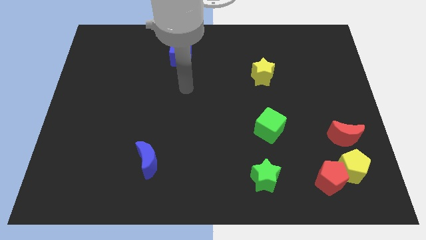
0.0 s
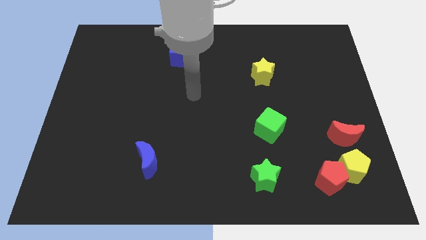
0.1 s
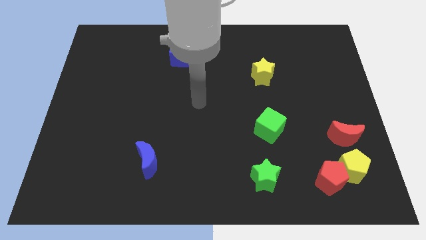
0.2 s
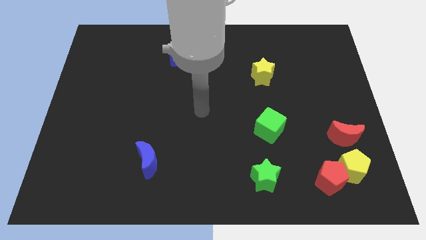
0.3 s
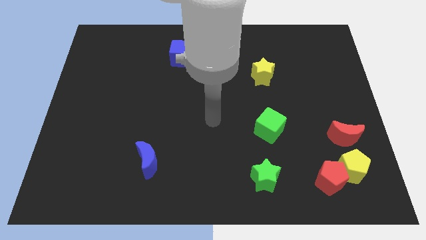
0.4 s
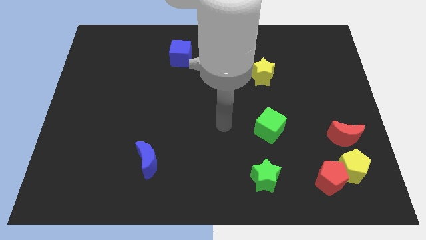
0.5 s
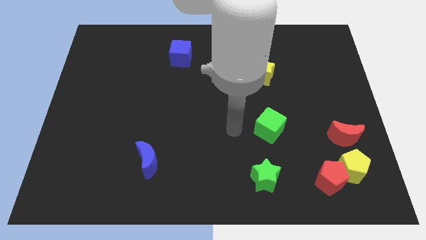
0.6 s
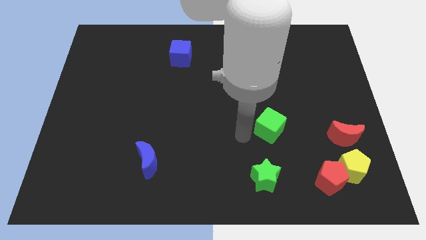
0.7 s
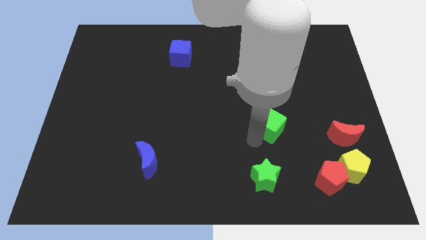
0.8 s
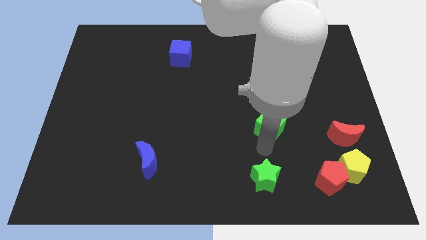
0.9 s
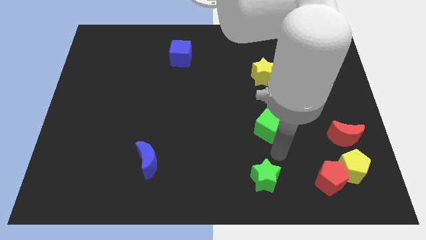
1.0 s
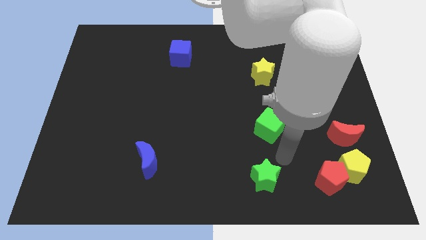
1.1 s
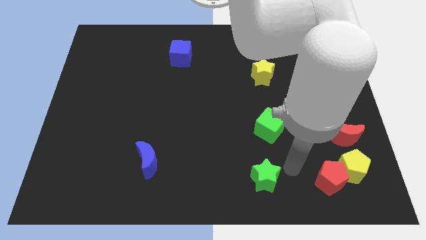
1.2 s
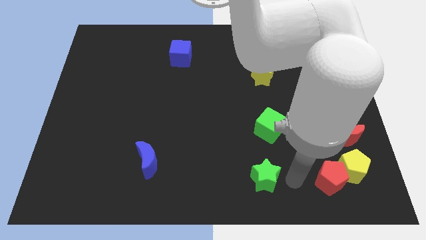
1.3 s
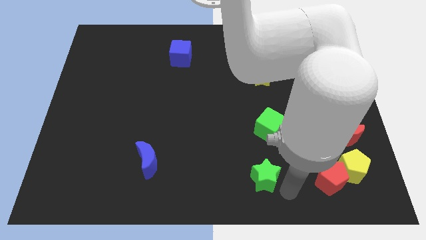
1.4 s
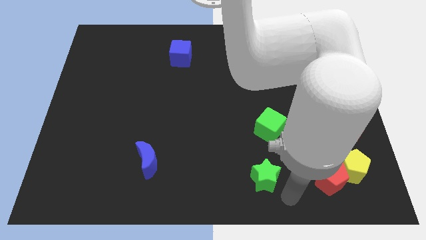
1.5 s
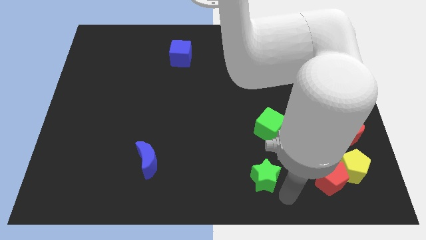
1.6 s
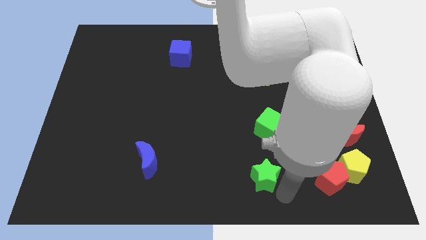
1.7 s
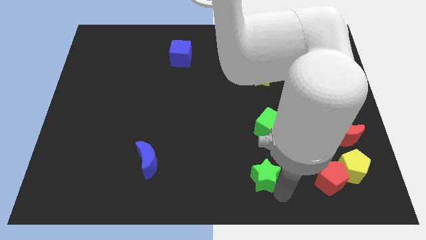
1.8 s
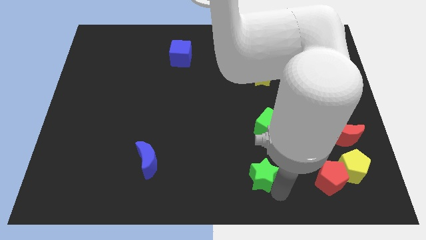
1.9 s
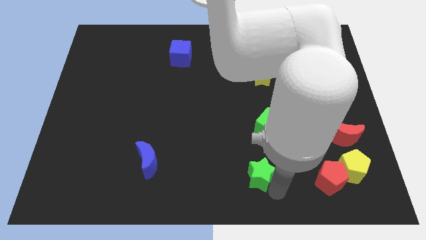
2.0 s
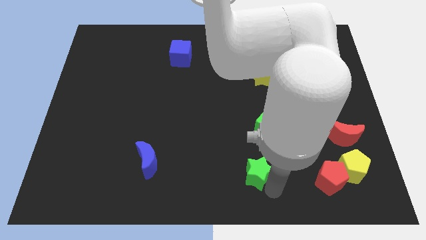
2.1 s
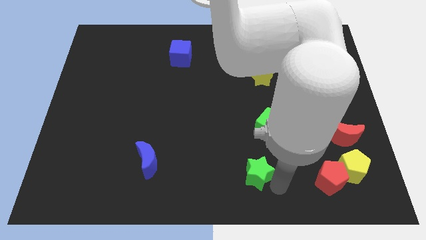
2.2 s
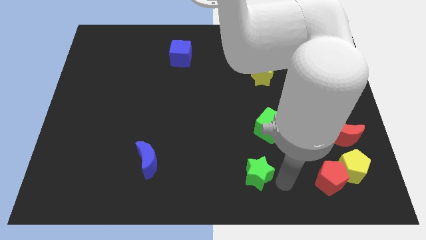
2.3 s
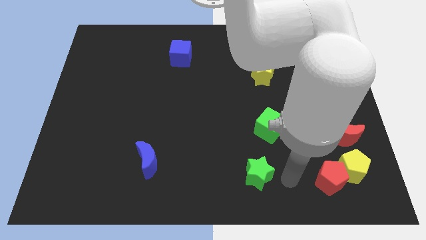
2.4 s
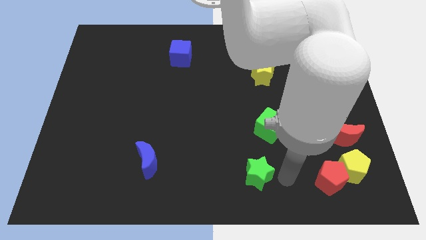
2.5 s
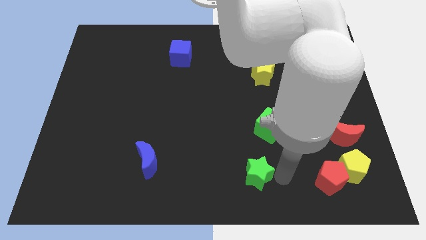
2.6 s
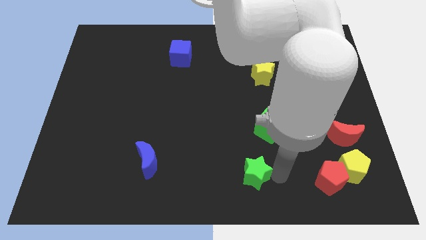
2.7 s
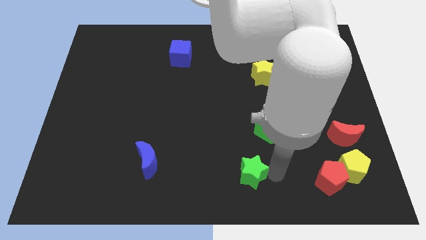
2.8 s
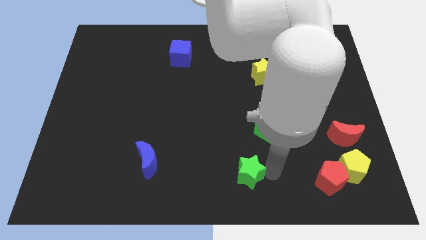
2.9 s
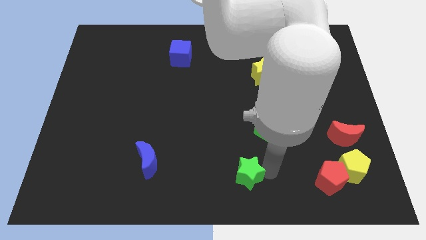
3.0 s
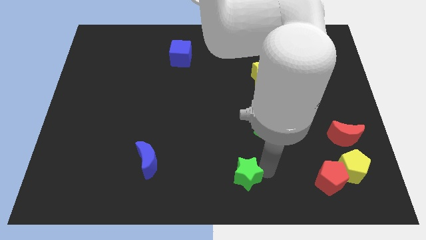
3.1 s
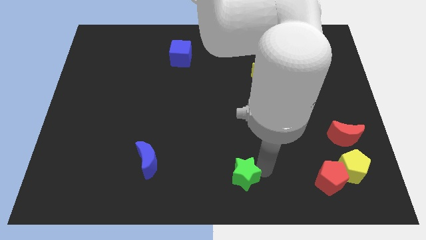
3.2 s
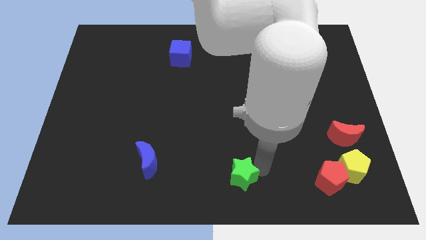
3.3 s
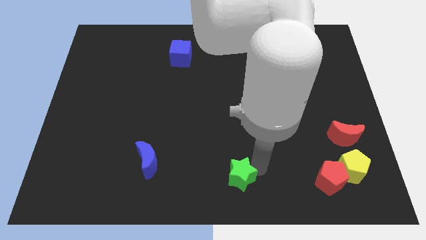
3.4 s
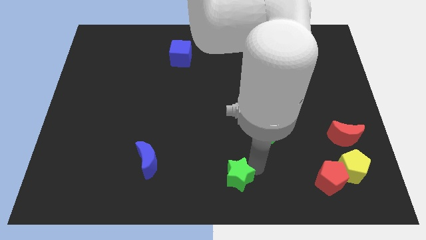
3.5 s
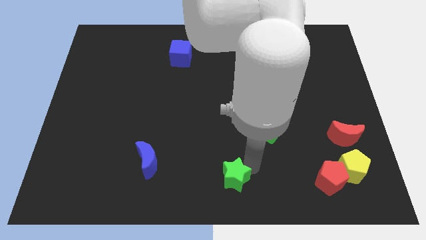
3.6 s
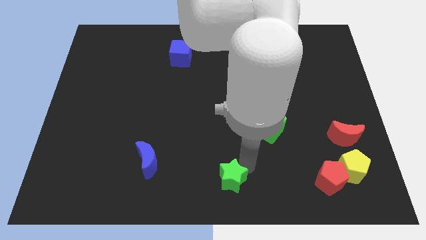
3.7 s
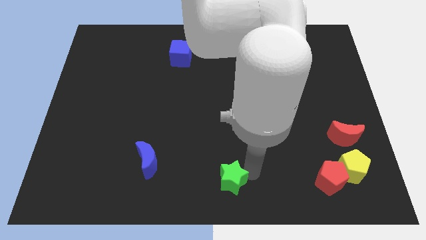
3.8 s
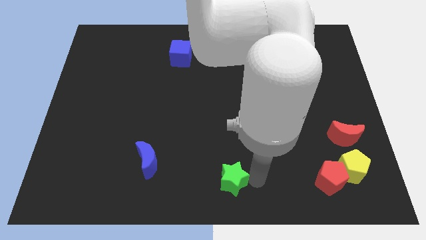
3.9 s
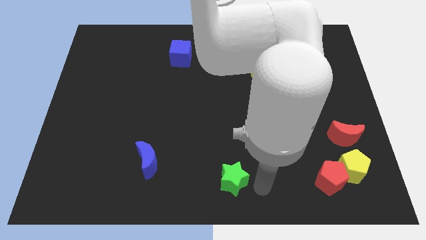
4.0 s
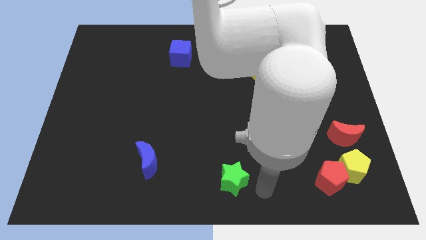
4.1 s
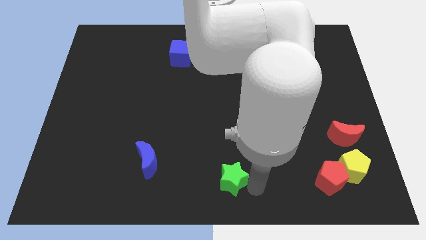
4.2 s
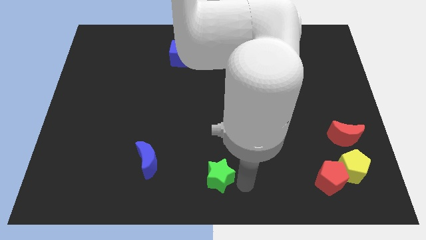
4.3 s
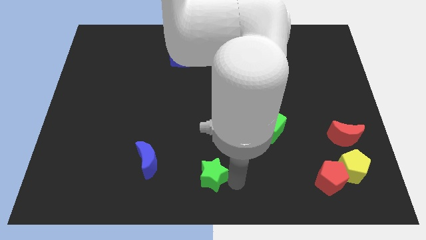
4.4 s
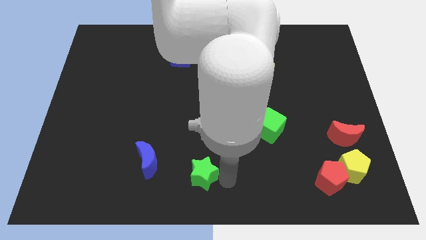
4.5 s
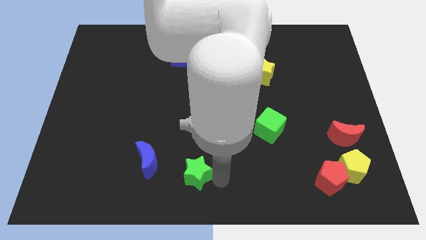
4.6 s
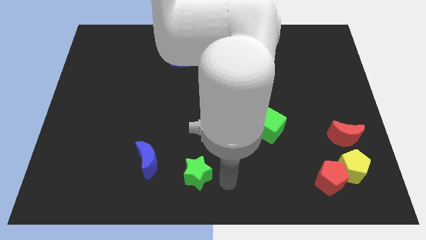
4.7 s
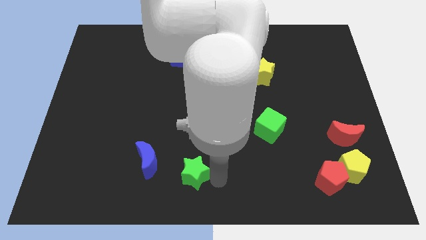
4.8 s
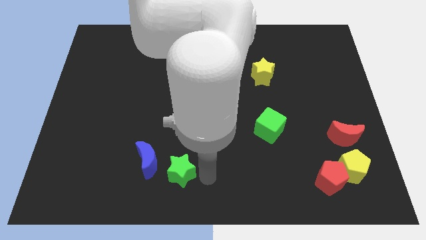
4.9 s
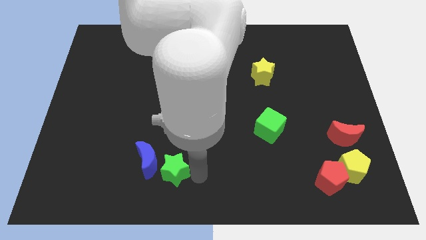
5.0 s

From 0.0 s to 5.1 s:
move the green star close to the blue moon
